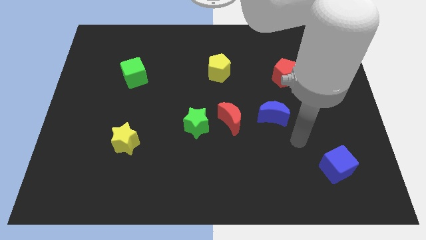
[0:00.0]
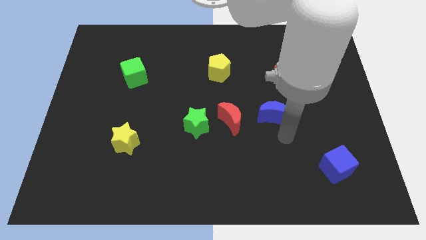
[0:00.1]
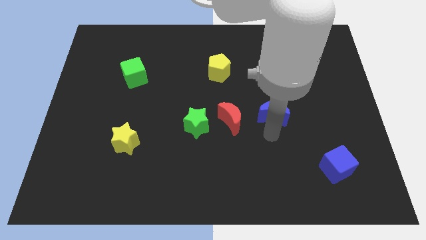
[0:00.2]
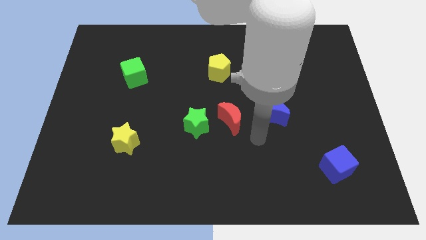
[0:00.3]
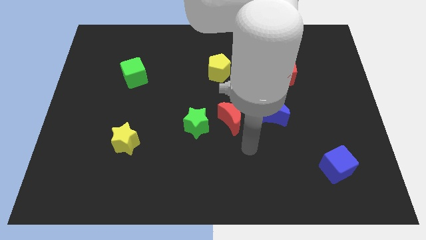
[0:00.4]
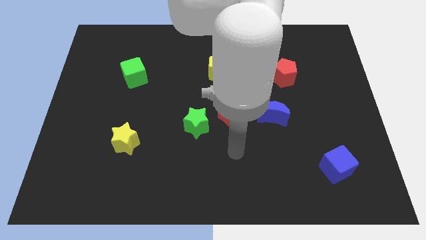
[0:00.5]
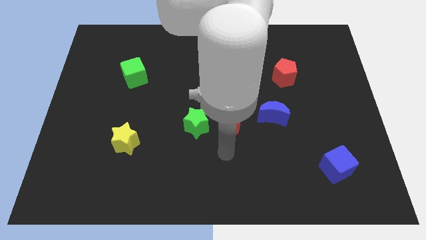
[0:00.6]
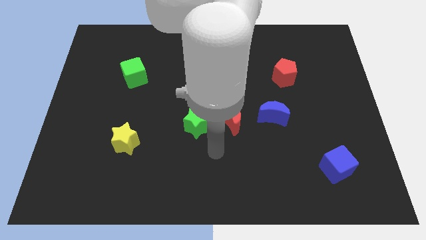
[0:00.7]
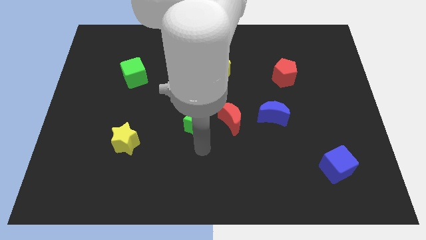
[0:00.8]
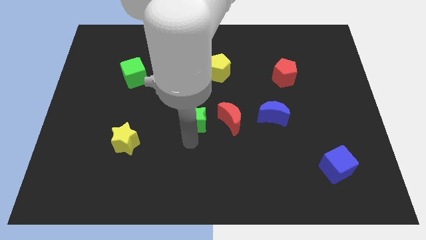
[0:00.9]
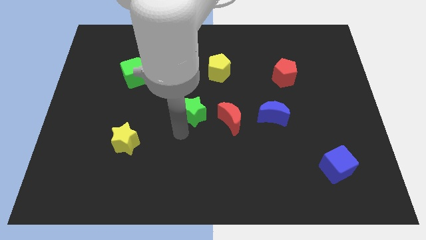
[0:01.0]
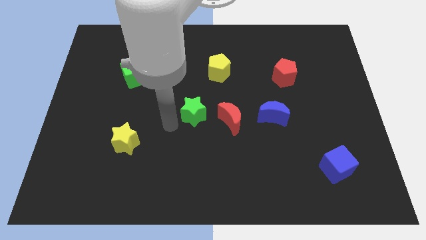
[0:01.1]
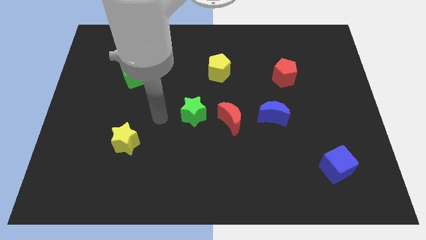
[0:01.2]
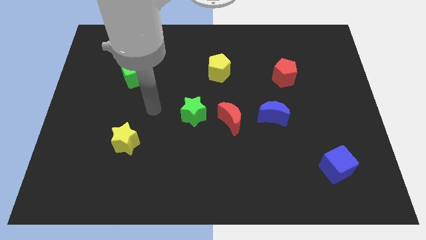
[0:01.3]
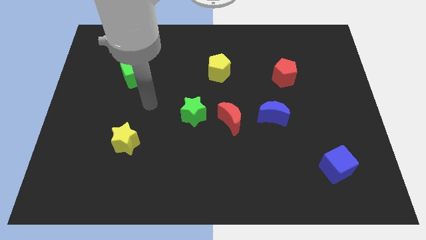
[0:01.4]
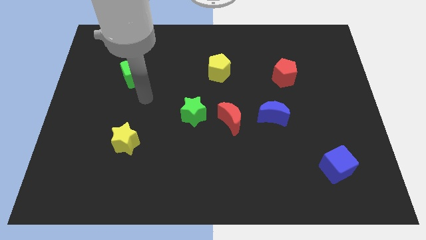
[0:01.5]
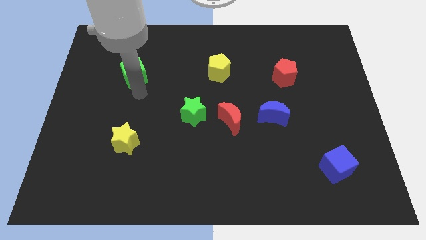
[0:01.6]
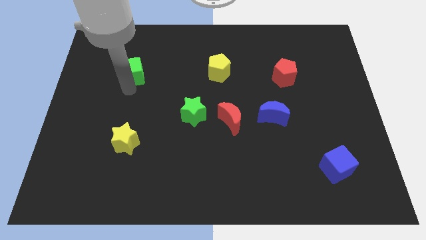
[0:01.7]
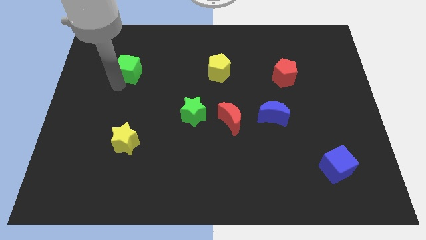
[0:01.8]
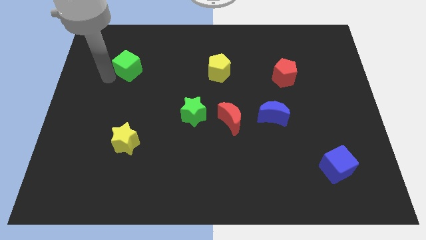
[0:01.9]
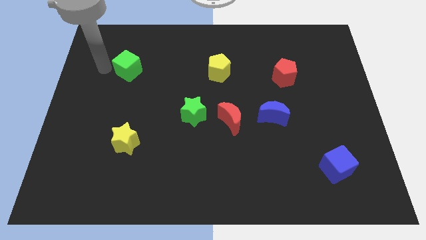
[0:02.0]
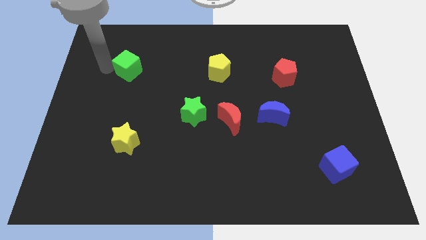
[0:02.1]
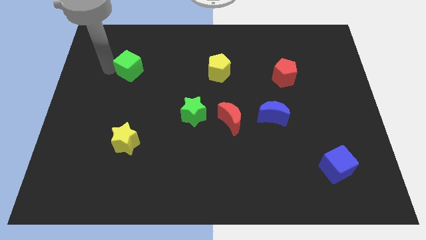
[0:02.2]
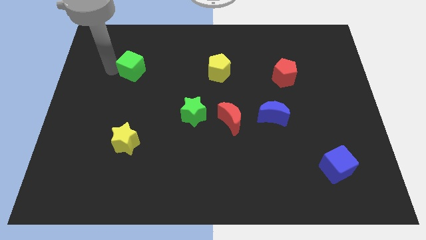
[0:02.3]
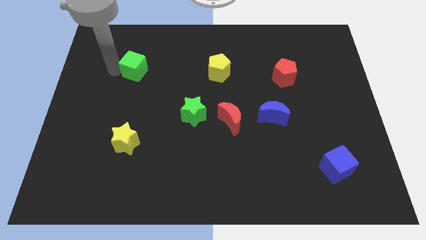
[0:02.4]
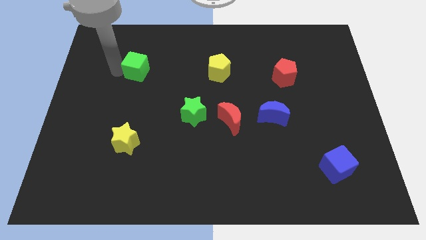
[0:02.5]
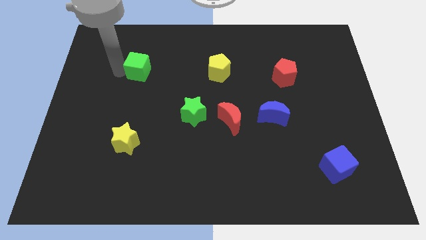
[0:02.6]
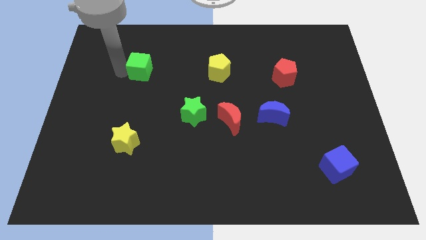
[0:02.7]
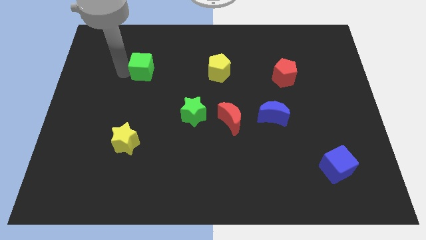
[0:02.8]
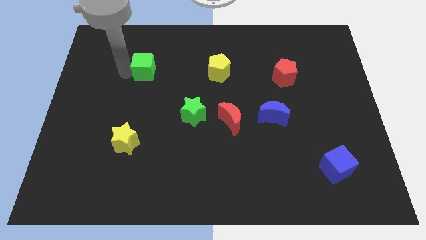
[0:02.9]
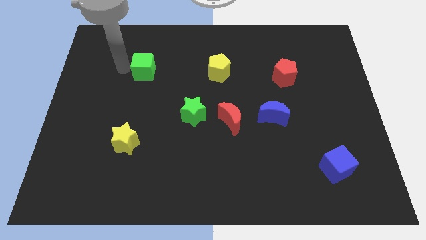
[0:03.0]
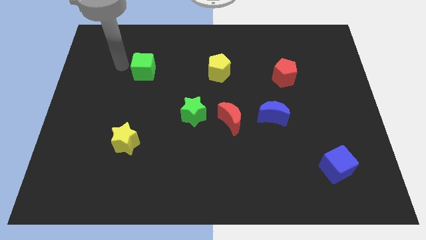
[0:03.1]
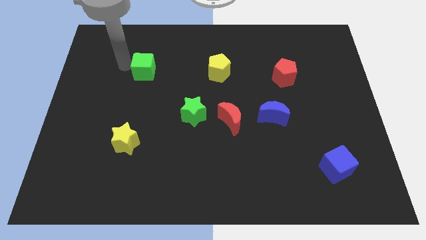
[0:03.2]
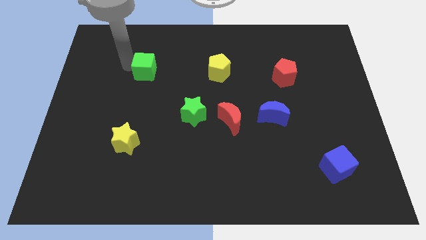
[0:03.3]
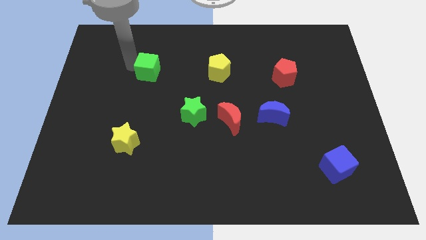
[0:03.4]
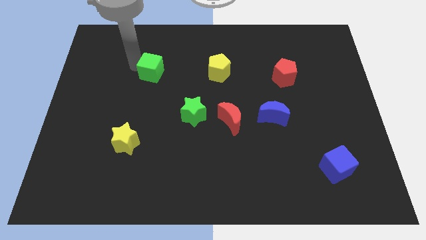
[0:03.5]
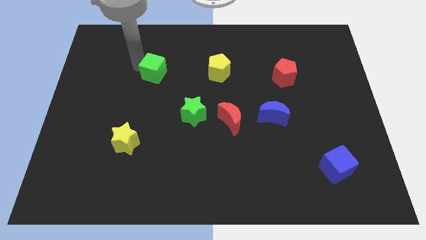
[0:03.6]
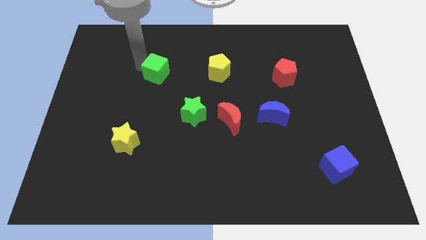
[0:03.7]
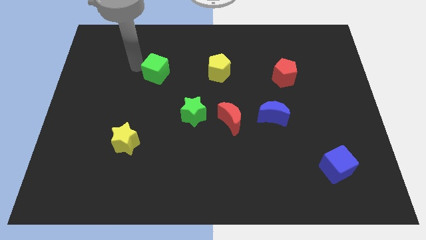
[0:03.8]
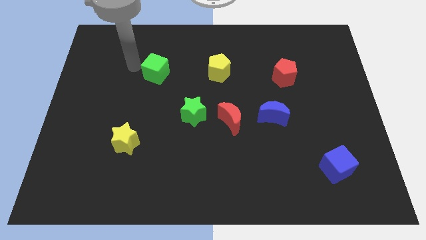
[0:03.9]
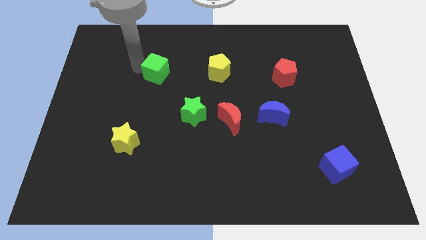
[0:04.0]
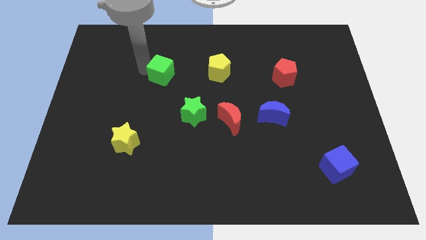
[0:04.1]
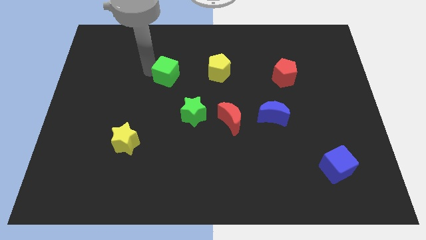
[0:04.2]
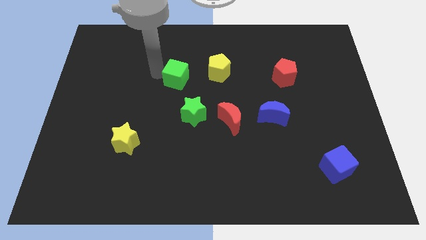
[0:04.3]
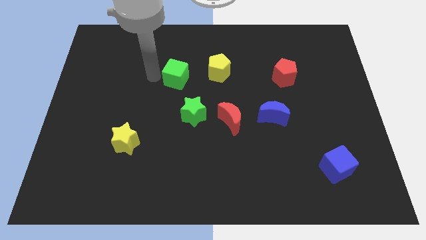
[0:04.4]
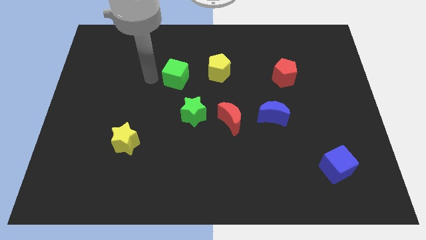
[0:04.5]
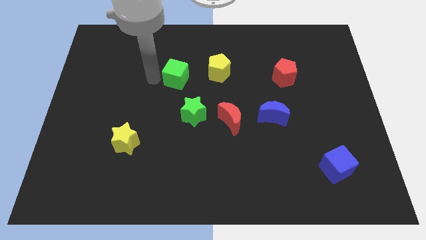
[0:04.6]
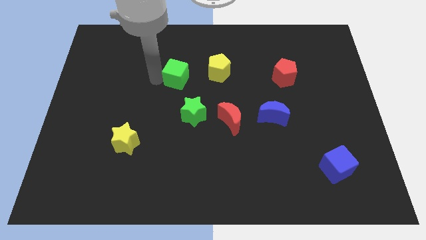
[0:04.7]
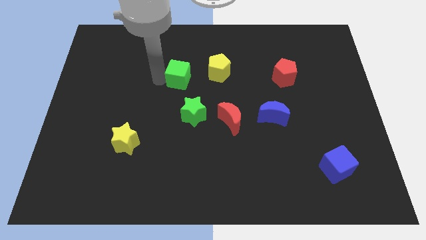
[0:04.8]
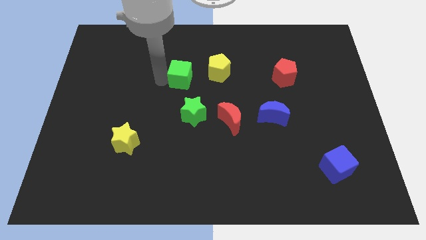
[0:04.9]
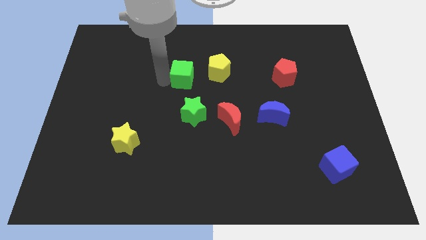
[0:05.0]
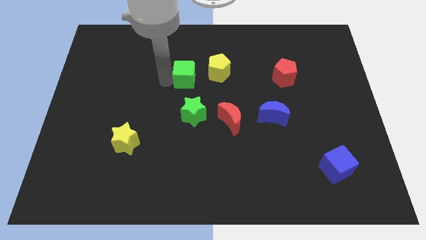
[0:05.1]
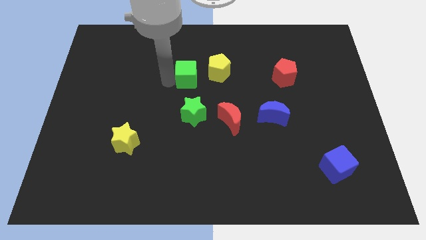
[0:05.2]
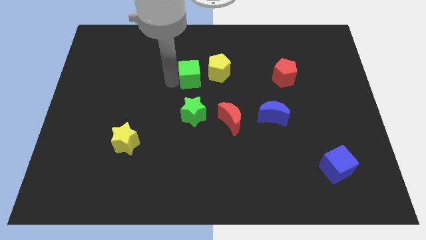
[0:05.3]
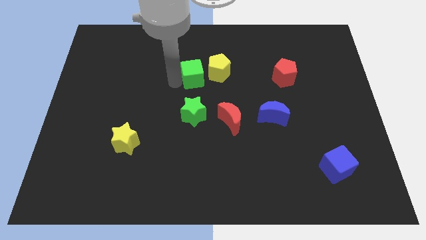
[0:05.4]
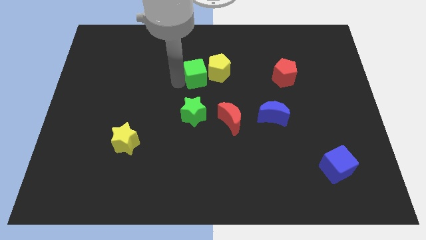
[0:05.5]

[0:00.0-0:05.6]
slide the green cube close to the yellow pentagon

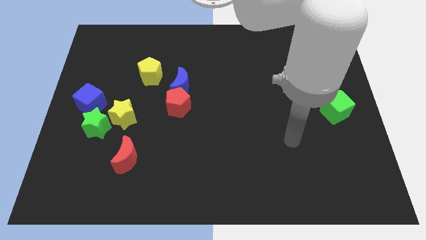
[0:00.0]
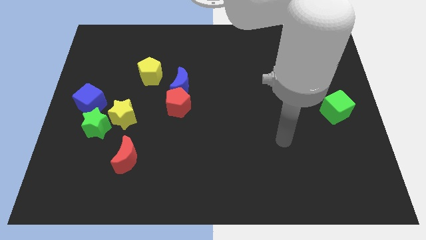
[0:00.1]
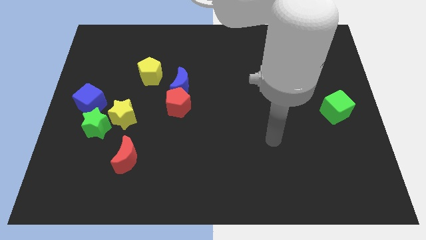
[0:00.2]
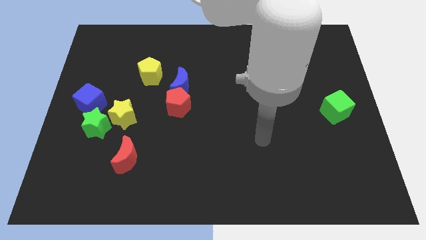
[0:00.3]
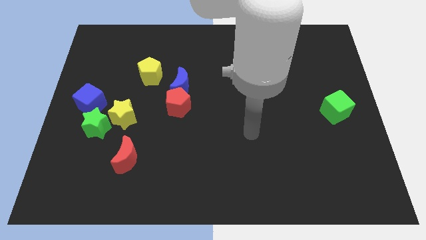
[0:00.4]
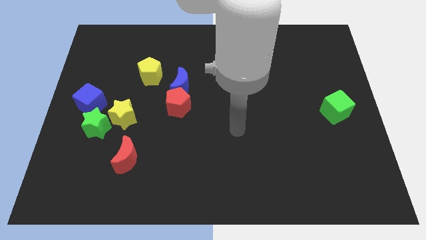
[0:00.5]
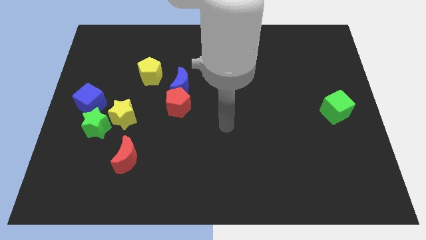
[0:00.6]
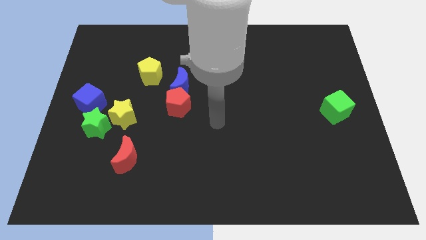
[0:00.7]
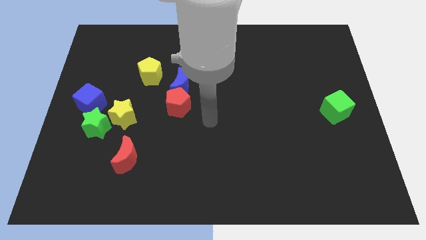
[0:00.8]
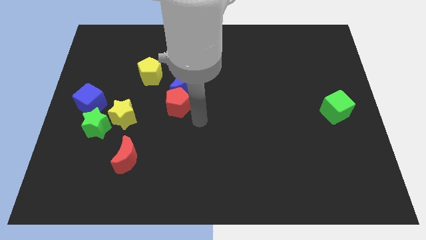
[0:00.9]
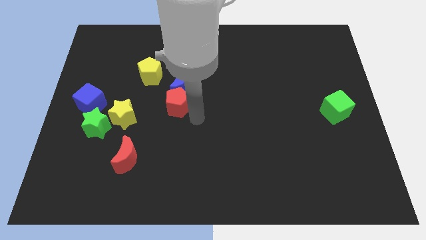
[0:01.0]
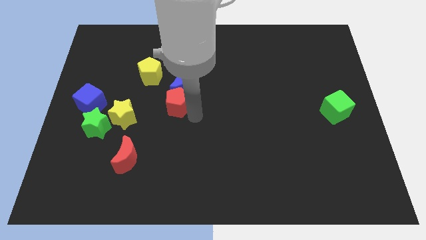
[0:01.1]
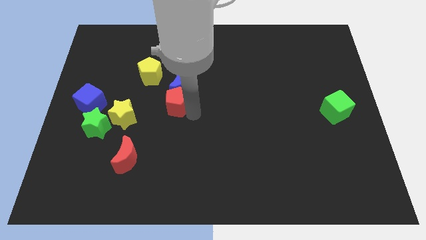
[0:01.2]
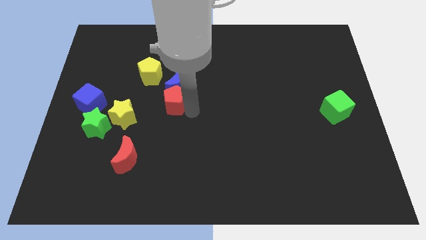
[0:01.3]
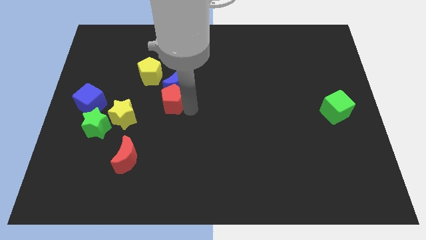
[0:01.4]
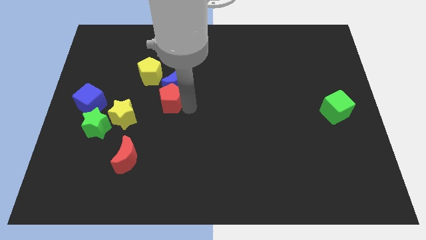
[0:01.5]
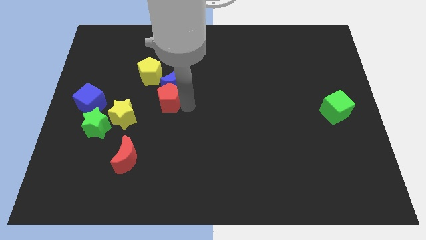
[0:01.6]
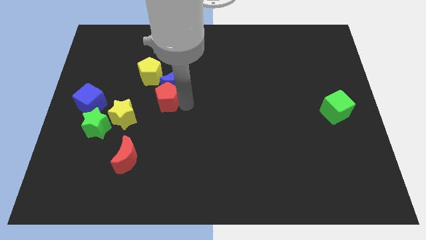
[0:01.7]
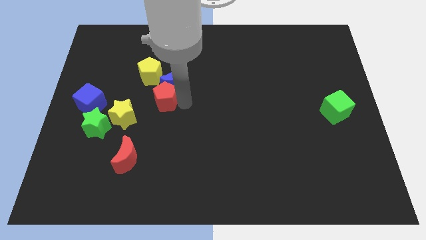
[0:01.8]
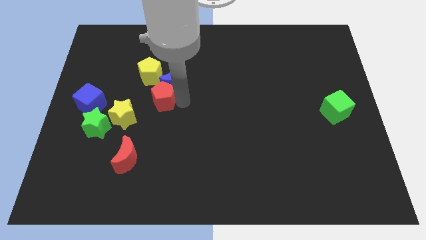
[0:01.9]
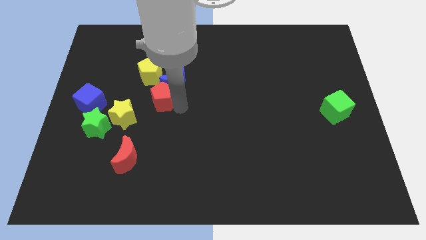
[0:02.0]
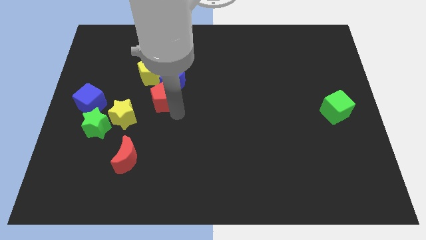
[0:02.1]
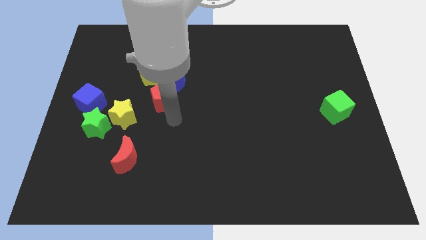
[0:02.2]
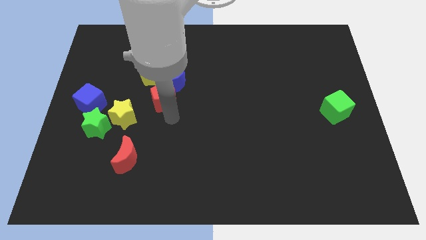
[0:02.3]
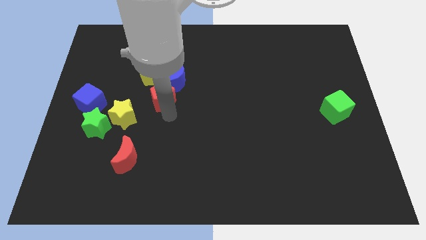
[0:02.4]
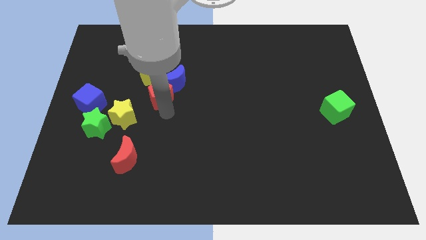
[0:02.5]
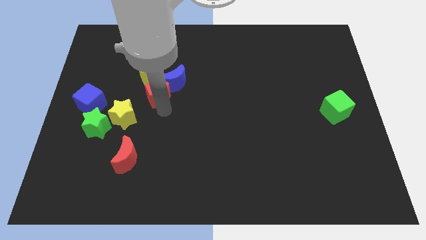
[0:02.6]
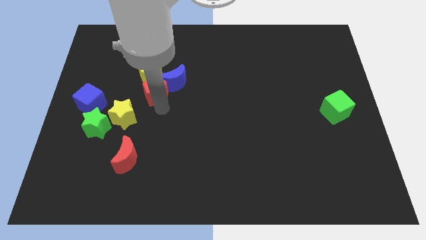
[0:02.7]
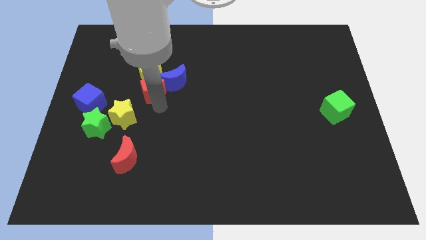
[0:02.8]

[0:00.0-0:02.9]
put the red pentagon to the yellow pentagon
